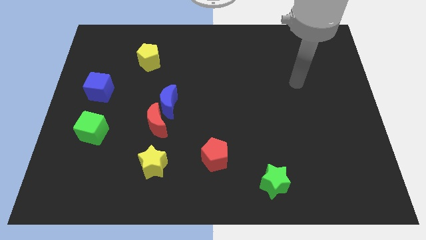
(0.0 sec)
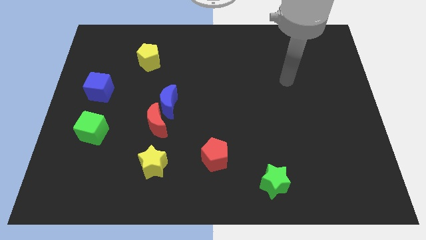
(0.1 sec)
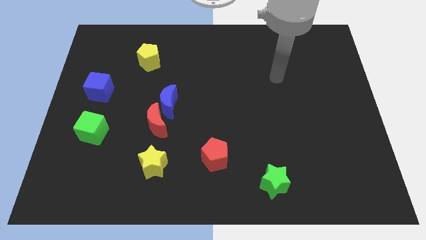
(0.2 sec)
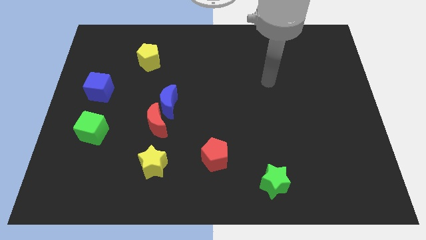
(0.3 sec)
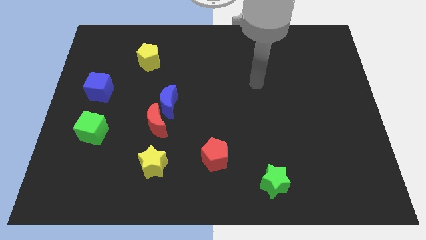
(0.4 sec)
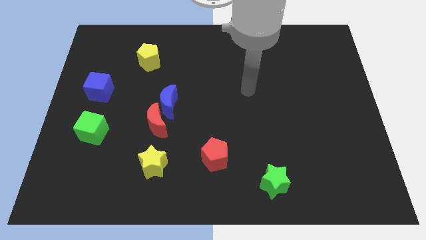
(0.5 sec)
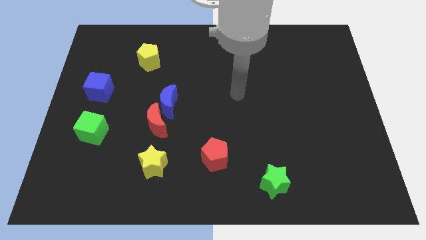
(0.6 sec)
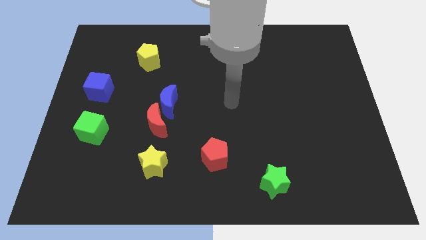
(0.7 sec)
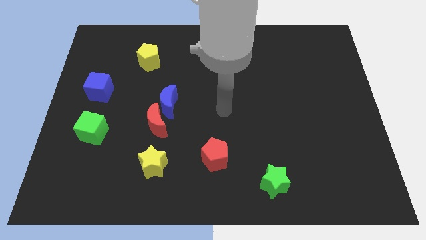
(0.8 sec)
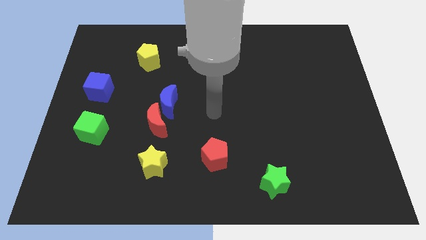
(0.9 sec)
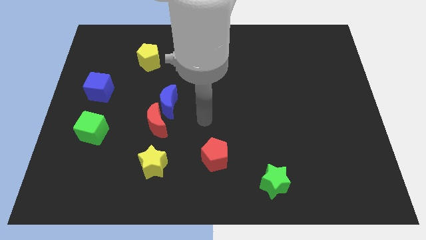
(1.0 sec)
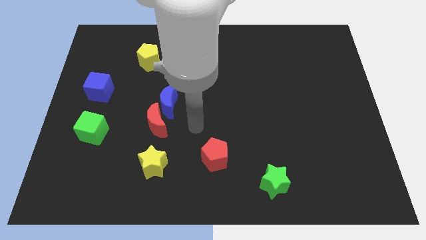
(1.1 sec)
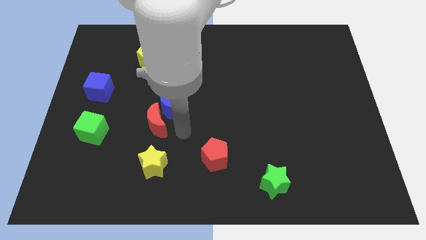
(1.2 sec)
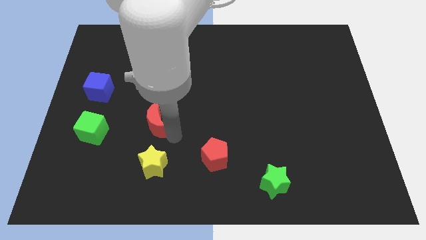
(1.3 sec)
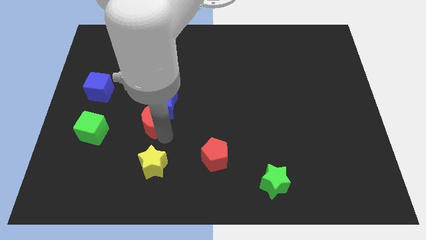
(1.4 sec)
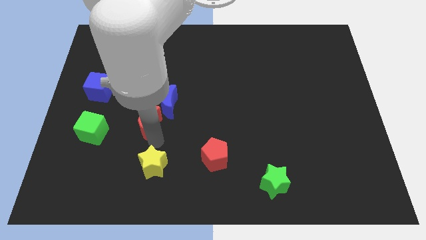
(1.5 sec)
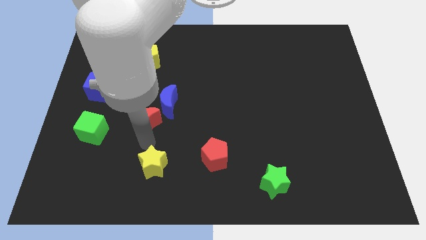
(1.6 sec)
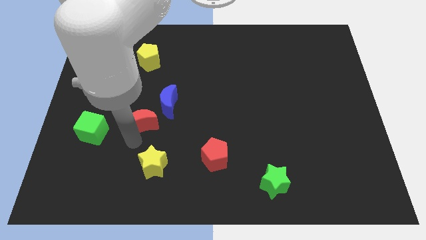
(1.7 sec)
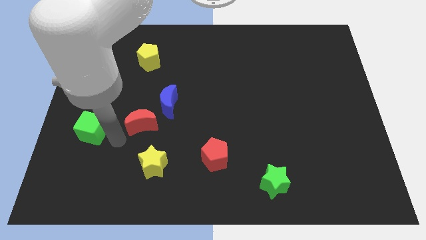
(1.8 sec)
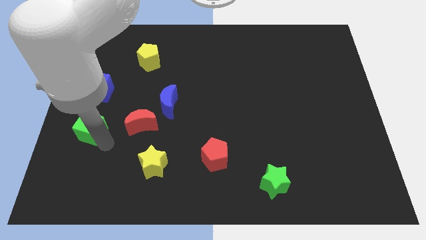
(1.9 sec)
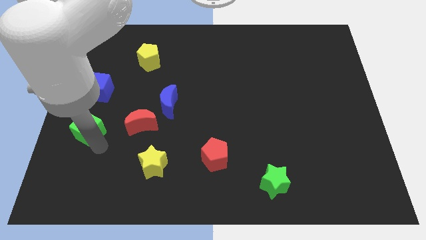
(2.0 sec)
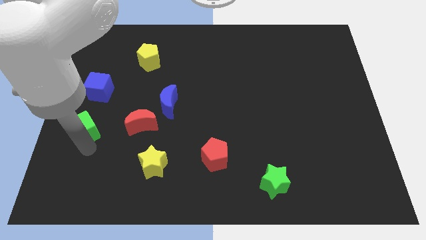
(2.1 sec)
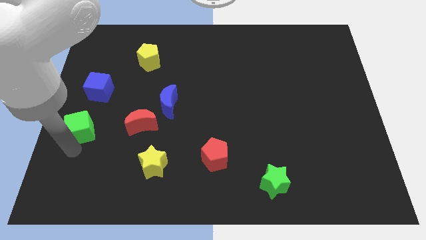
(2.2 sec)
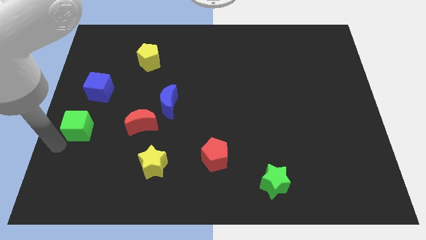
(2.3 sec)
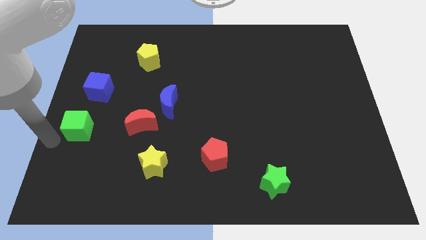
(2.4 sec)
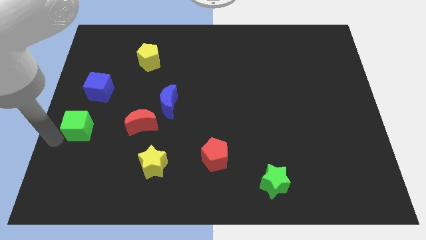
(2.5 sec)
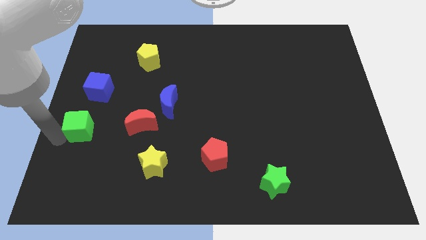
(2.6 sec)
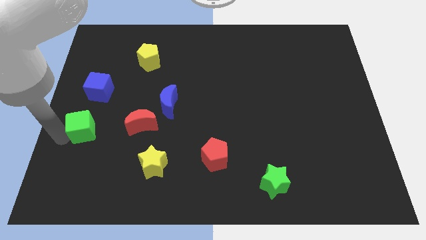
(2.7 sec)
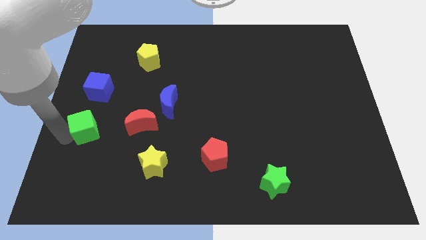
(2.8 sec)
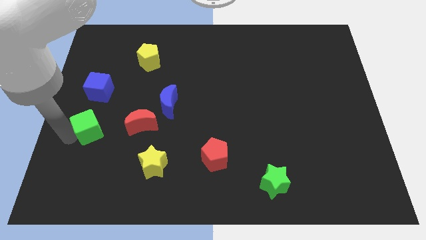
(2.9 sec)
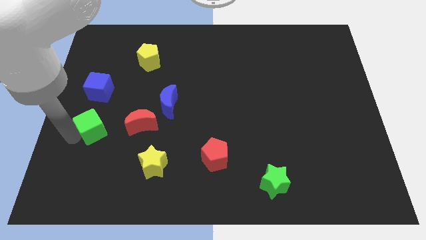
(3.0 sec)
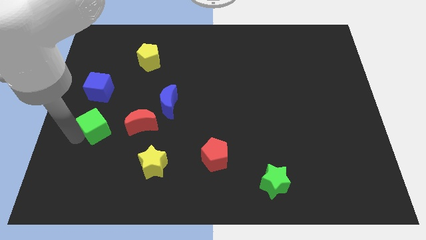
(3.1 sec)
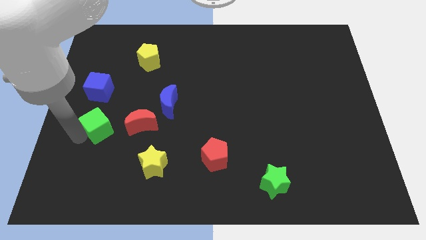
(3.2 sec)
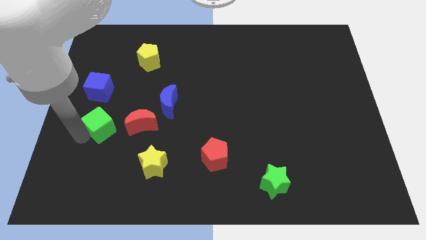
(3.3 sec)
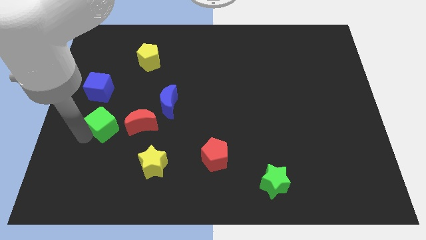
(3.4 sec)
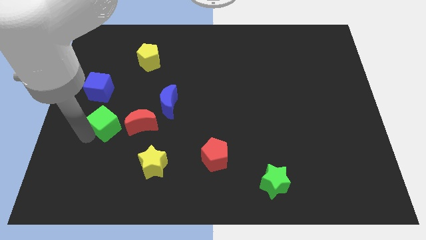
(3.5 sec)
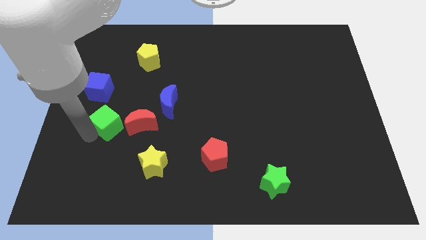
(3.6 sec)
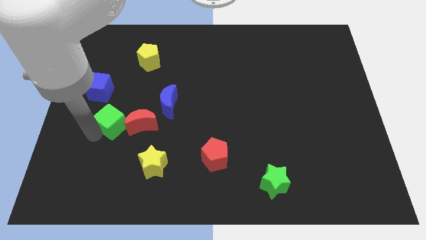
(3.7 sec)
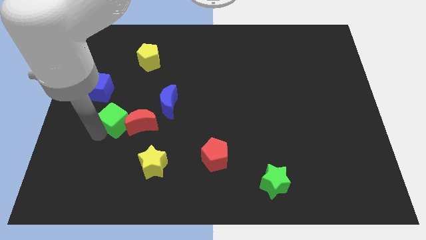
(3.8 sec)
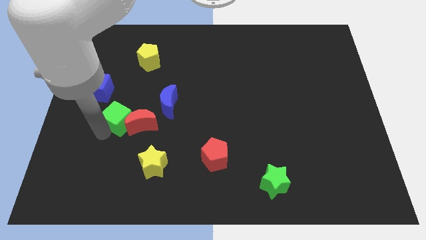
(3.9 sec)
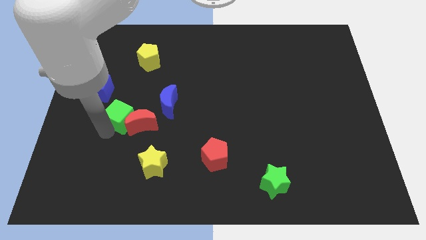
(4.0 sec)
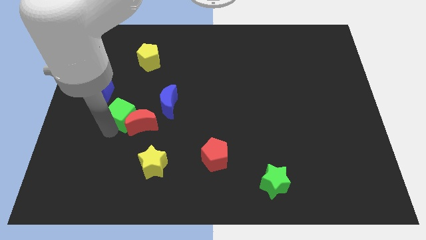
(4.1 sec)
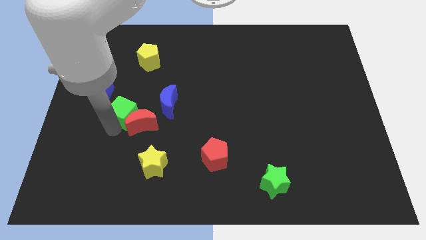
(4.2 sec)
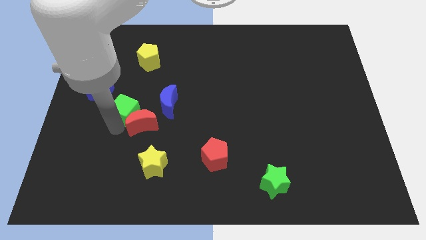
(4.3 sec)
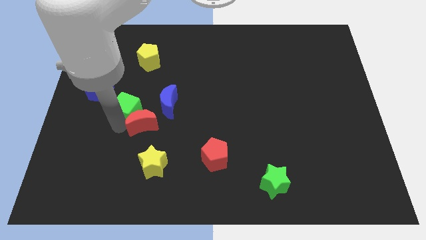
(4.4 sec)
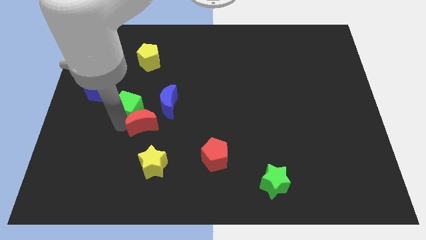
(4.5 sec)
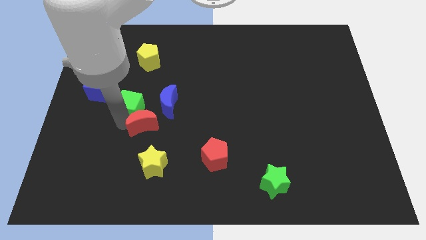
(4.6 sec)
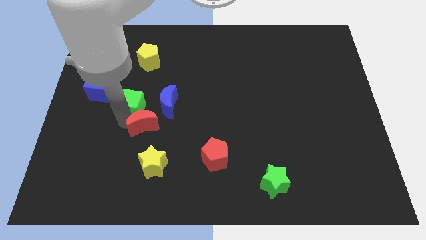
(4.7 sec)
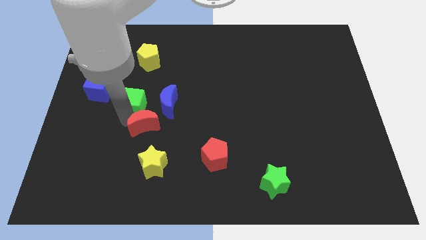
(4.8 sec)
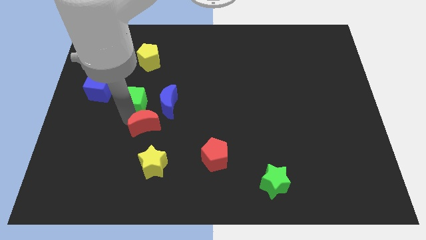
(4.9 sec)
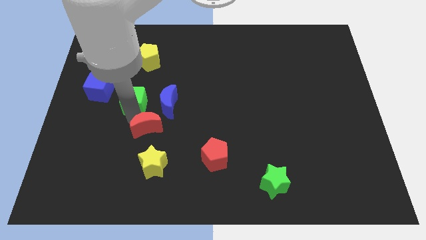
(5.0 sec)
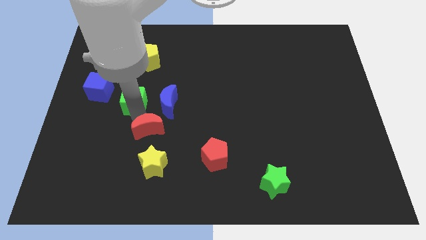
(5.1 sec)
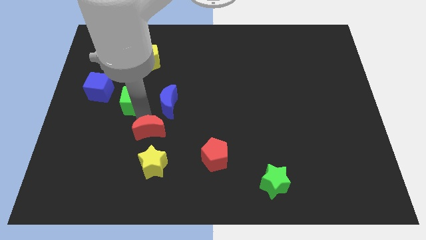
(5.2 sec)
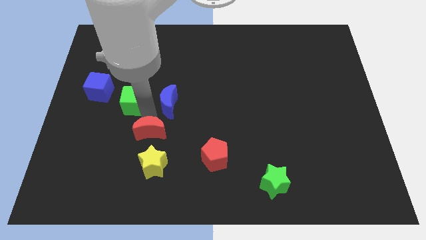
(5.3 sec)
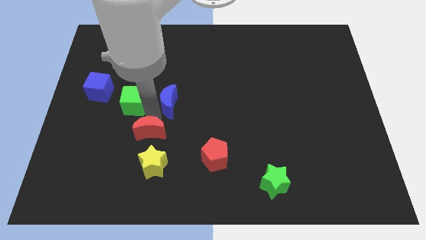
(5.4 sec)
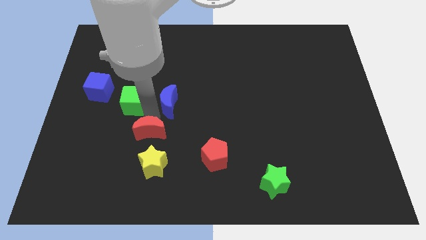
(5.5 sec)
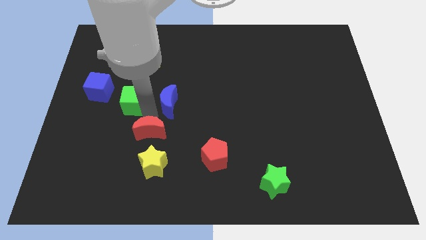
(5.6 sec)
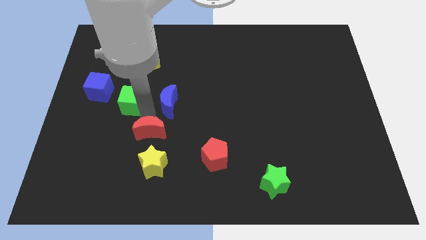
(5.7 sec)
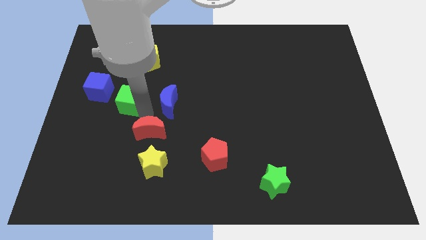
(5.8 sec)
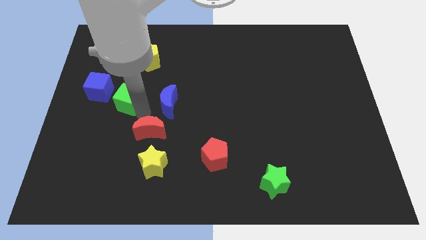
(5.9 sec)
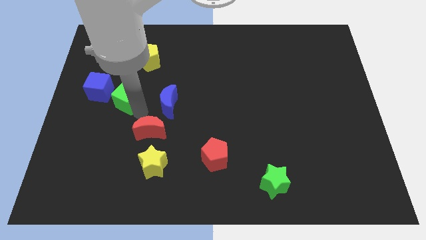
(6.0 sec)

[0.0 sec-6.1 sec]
move the green cube upwards a little bit

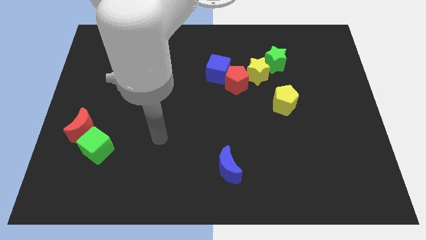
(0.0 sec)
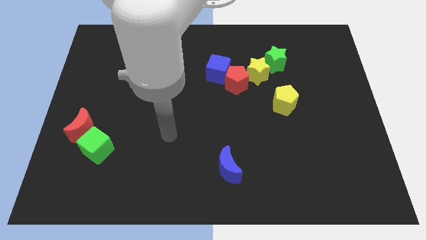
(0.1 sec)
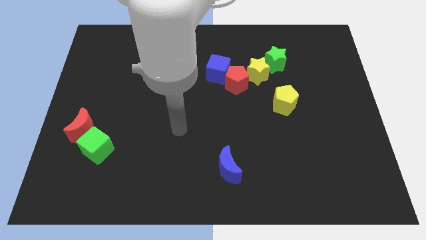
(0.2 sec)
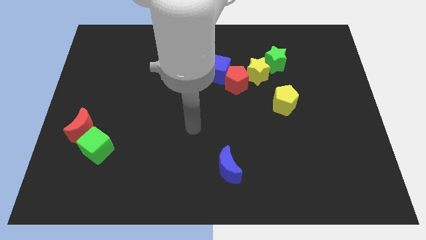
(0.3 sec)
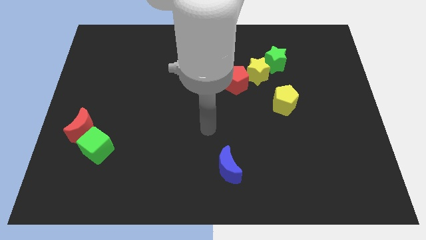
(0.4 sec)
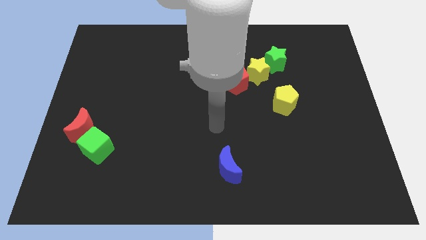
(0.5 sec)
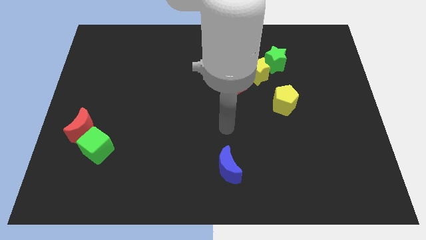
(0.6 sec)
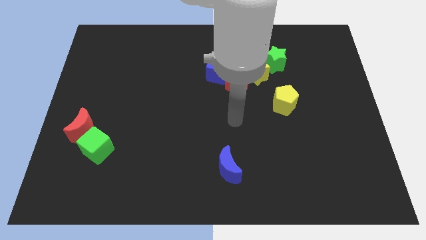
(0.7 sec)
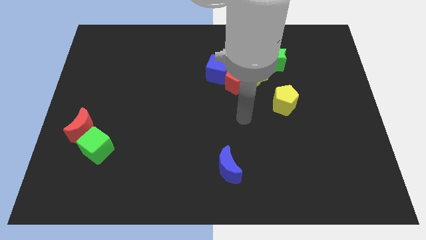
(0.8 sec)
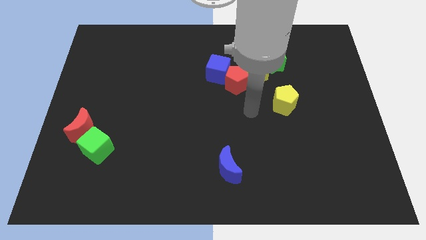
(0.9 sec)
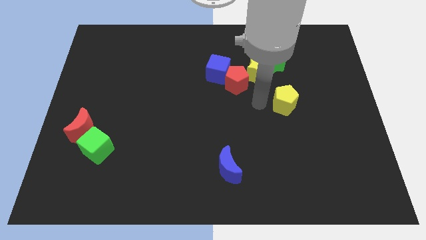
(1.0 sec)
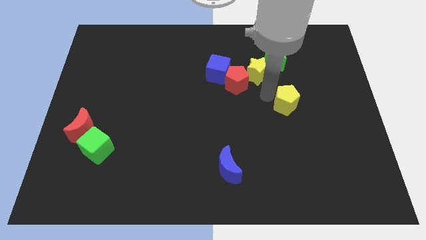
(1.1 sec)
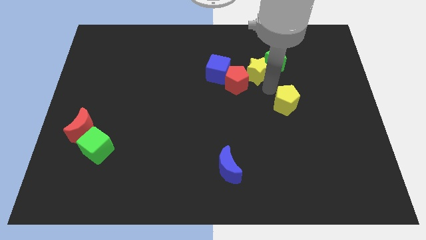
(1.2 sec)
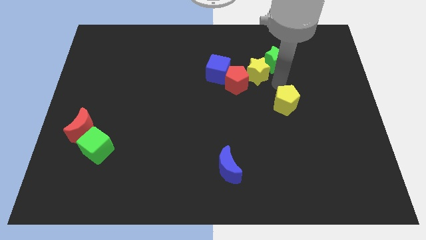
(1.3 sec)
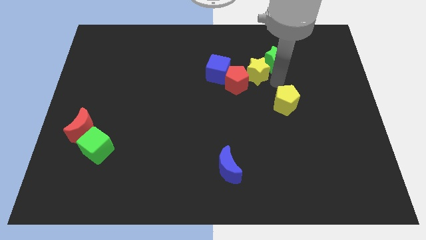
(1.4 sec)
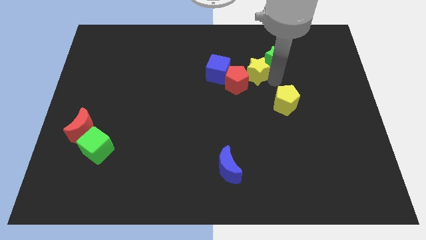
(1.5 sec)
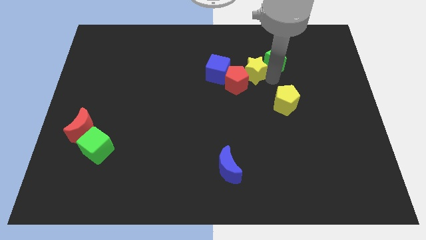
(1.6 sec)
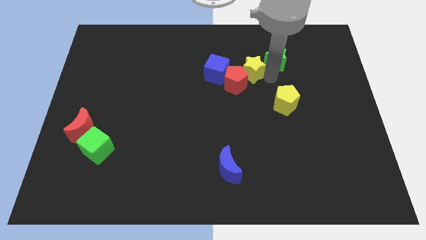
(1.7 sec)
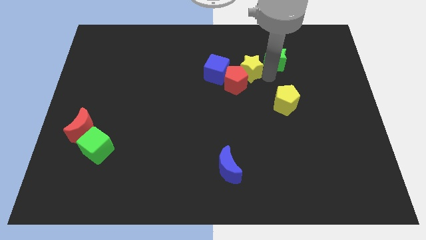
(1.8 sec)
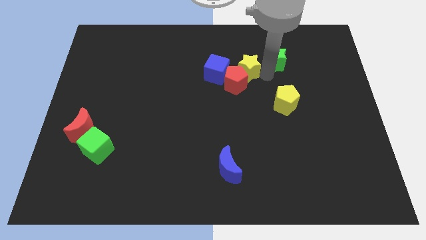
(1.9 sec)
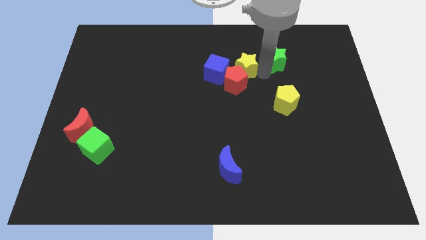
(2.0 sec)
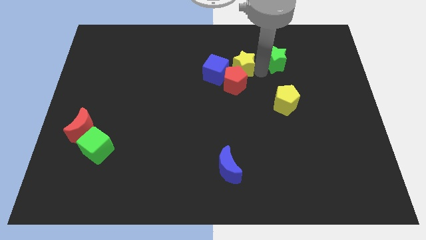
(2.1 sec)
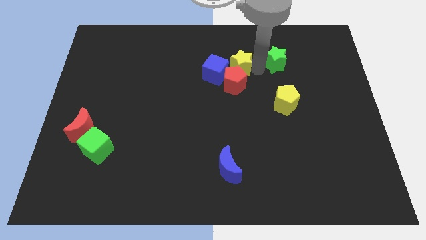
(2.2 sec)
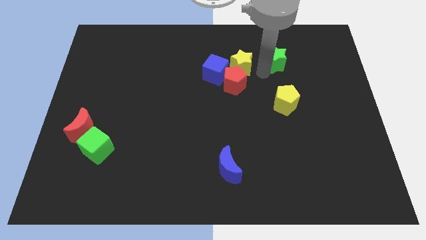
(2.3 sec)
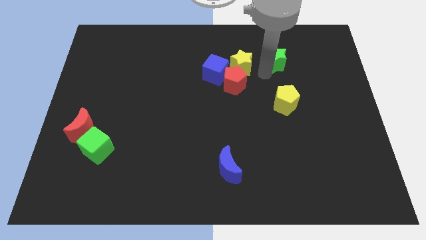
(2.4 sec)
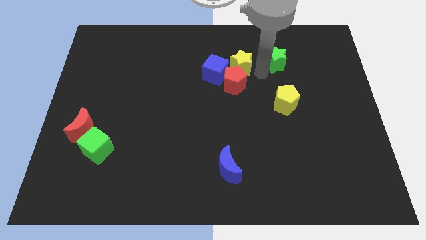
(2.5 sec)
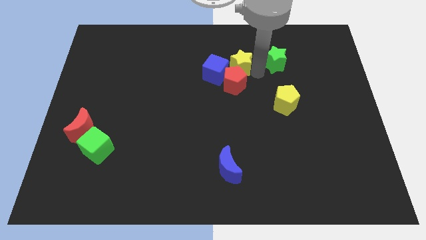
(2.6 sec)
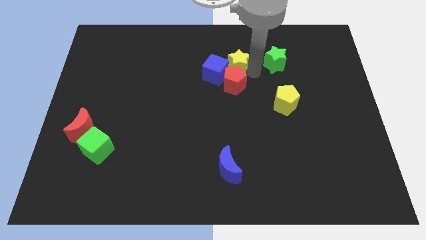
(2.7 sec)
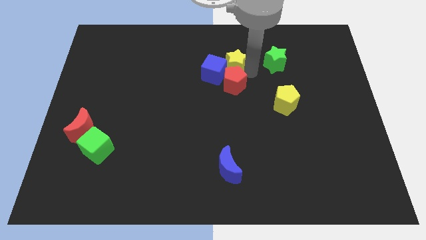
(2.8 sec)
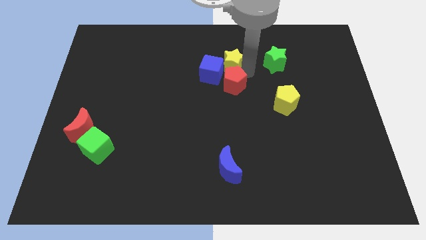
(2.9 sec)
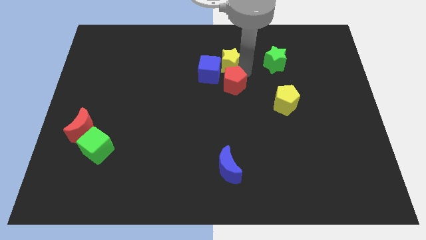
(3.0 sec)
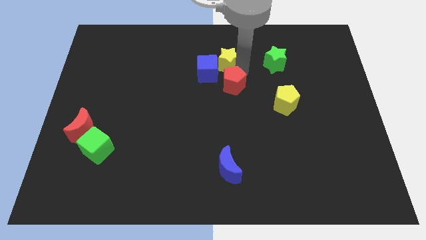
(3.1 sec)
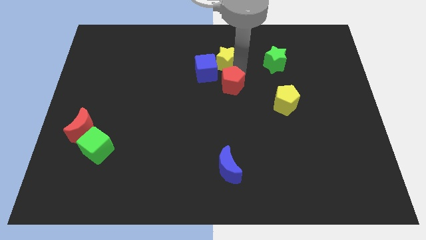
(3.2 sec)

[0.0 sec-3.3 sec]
move the yellow star to the left a little
